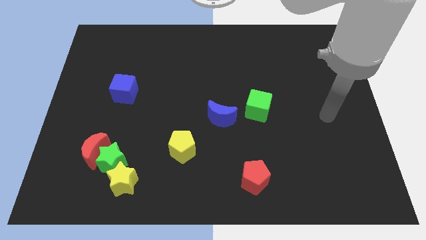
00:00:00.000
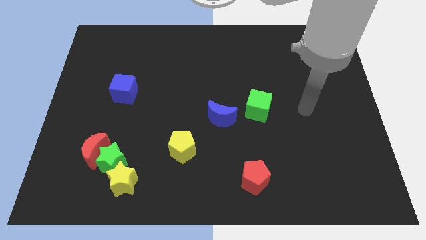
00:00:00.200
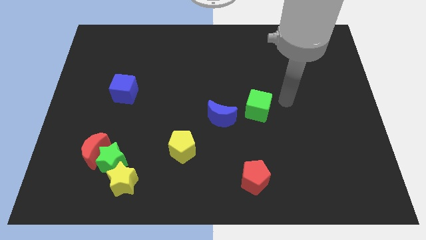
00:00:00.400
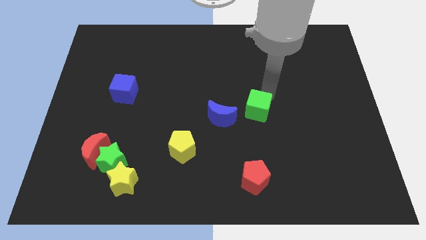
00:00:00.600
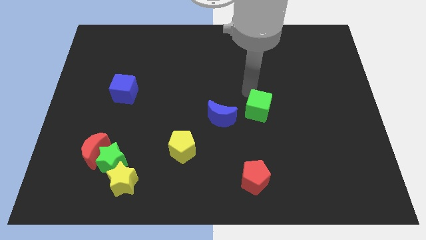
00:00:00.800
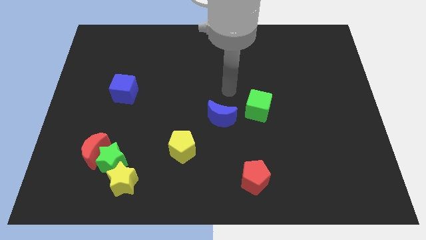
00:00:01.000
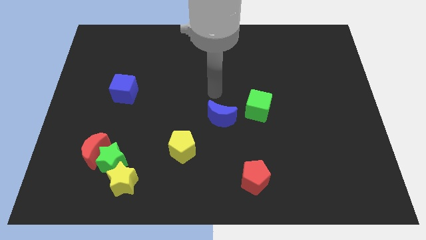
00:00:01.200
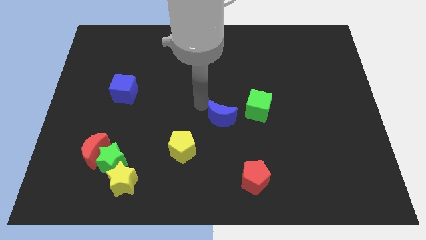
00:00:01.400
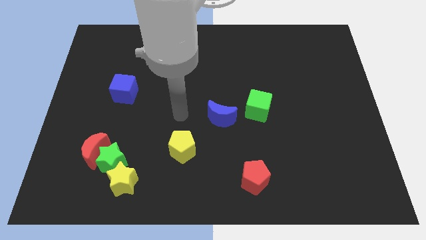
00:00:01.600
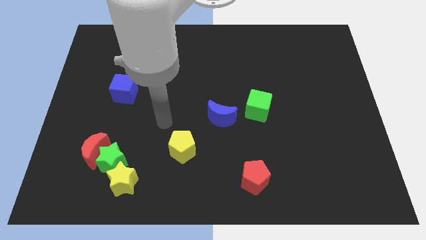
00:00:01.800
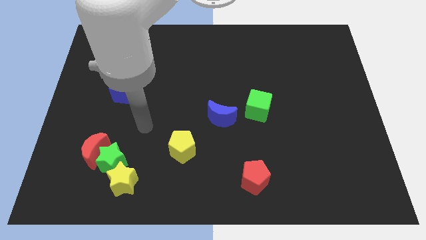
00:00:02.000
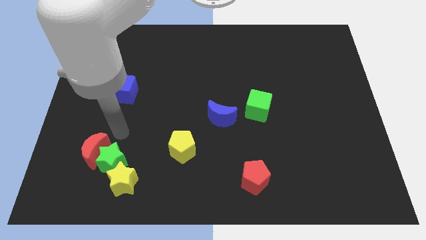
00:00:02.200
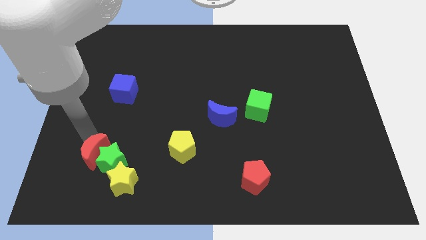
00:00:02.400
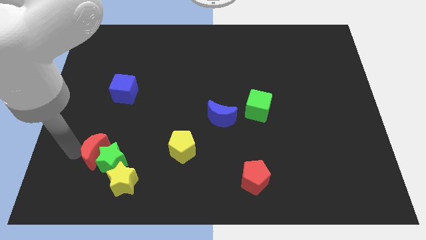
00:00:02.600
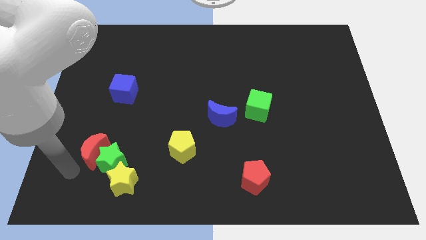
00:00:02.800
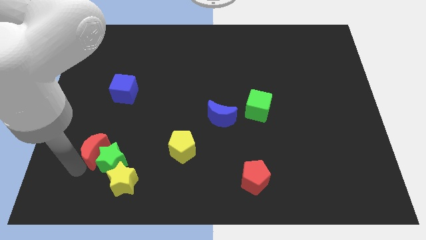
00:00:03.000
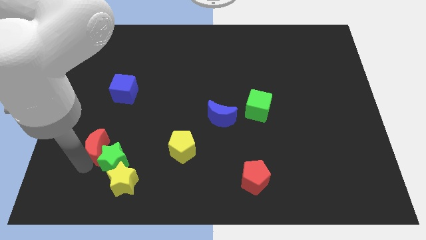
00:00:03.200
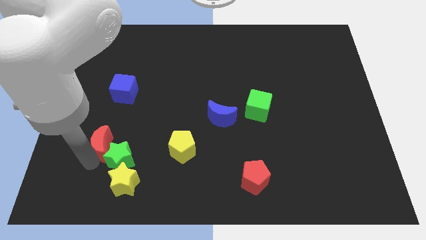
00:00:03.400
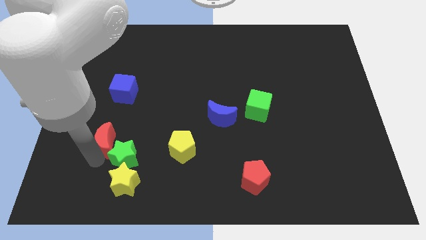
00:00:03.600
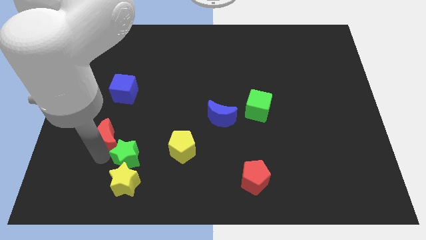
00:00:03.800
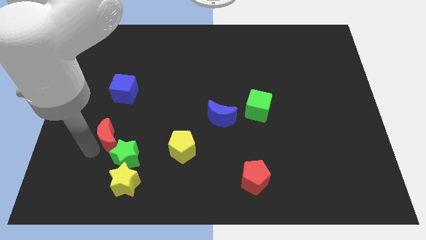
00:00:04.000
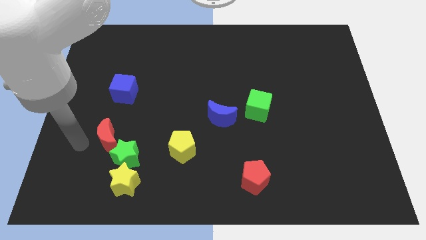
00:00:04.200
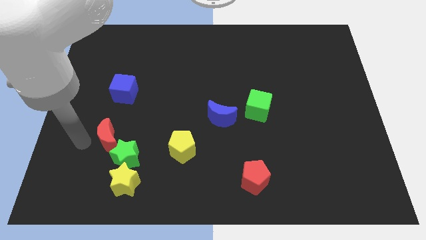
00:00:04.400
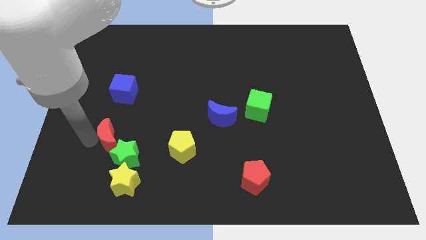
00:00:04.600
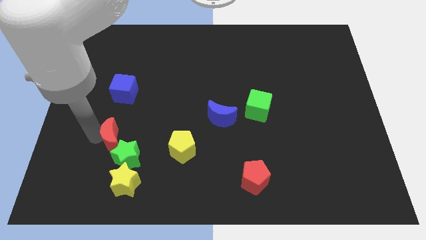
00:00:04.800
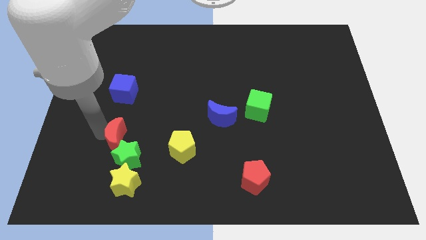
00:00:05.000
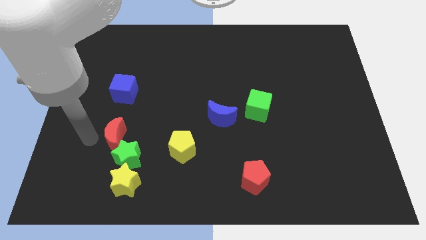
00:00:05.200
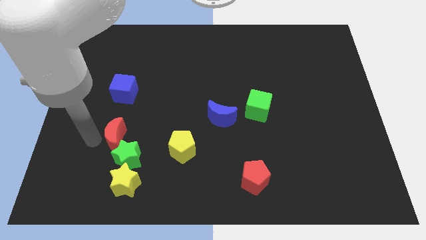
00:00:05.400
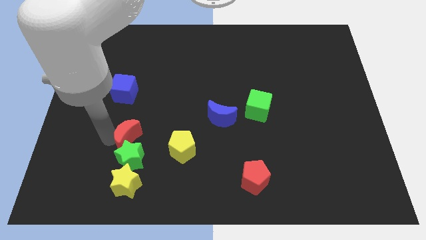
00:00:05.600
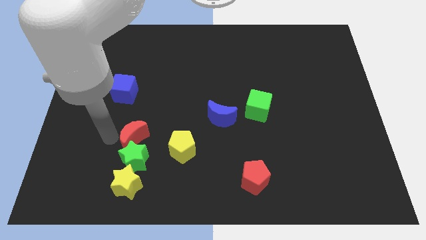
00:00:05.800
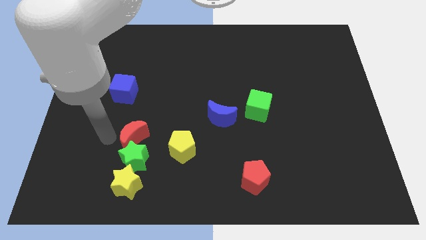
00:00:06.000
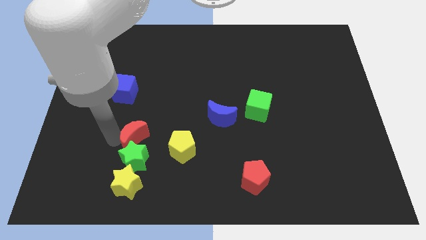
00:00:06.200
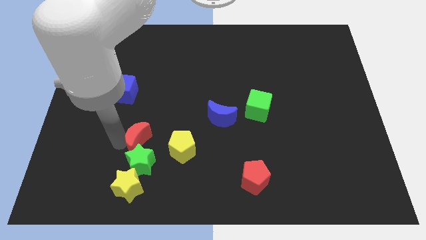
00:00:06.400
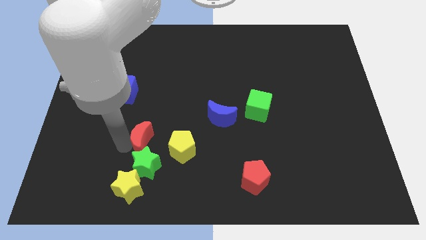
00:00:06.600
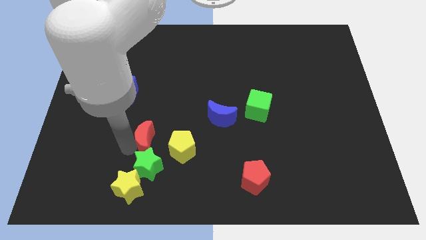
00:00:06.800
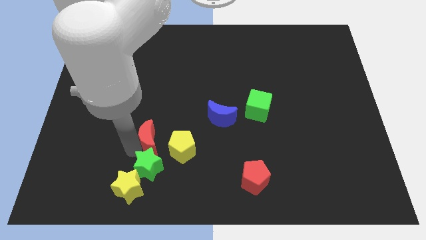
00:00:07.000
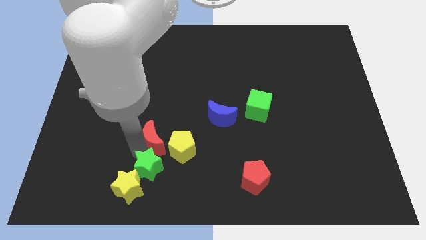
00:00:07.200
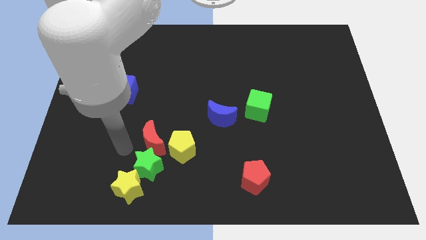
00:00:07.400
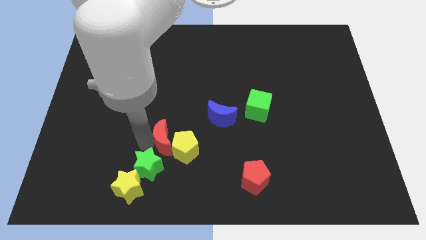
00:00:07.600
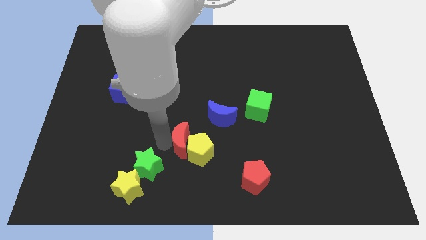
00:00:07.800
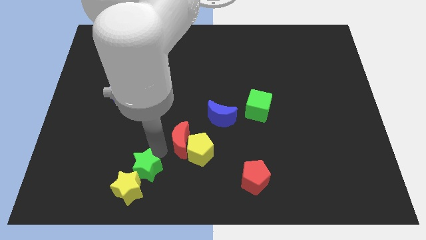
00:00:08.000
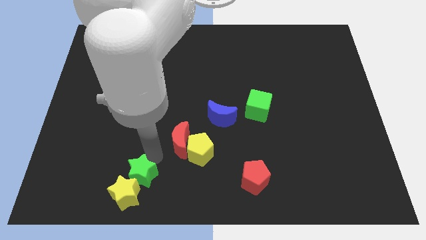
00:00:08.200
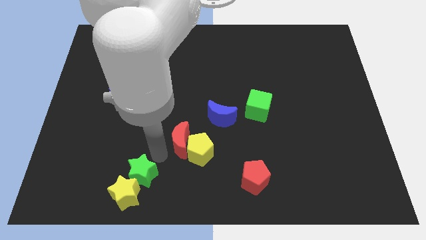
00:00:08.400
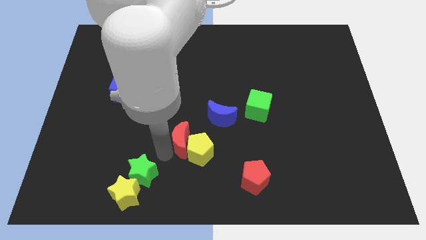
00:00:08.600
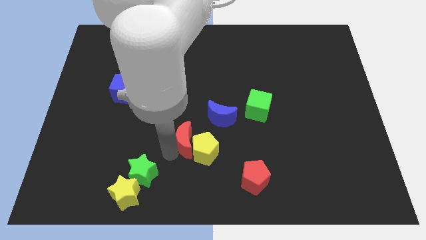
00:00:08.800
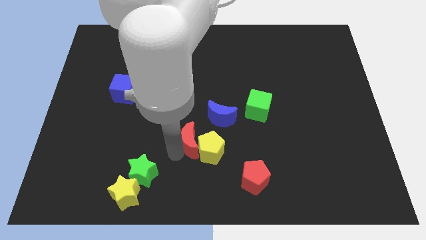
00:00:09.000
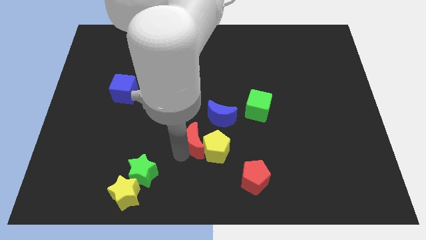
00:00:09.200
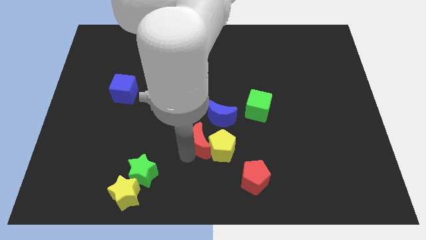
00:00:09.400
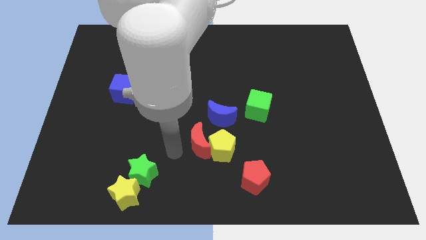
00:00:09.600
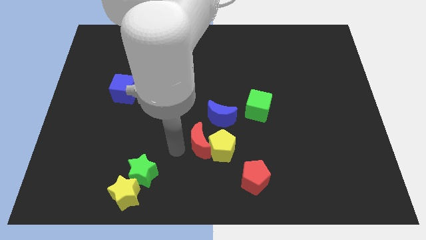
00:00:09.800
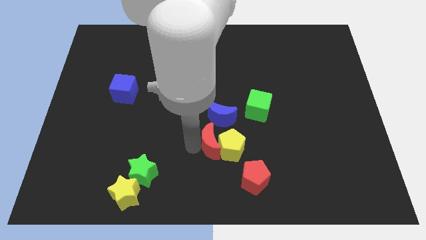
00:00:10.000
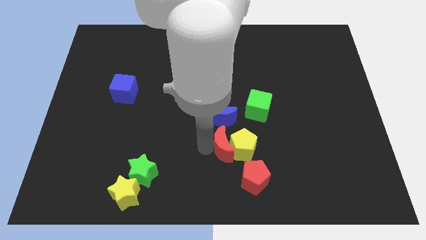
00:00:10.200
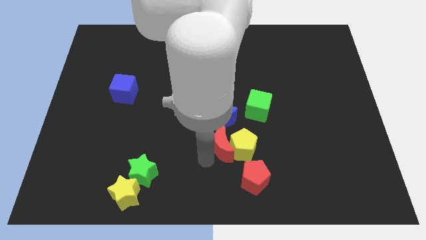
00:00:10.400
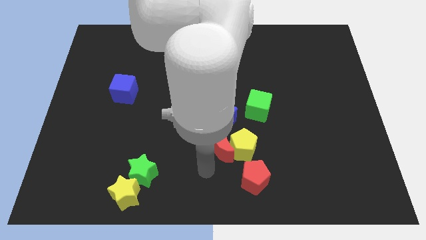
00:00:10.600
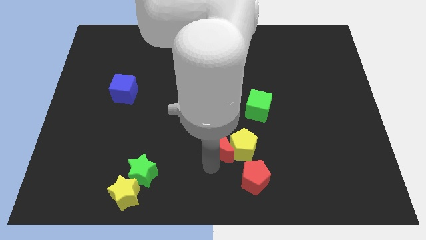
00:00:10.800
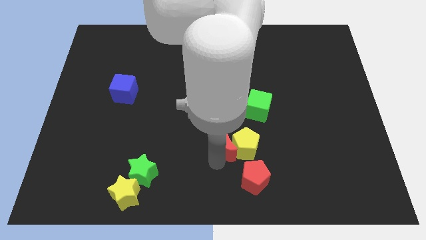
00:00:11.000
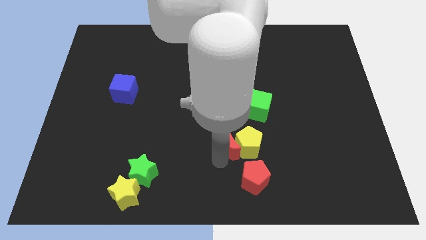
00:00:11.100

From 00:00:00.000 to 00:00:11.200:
put the red moon to the bottom left of the green cube
